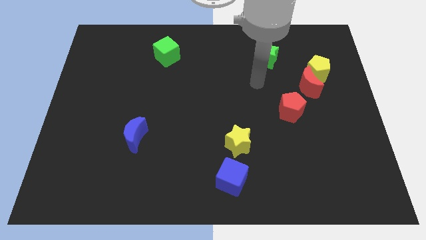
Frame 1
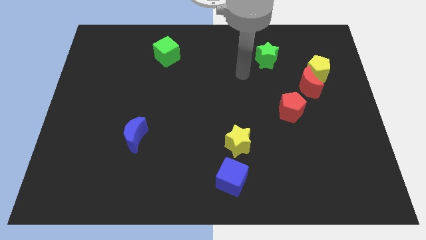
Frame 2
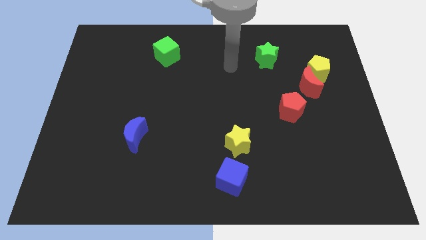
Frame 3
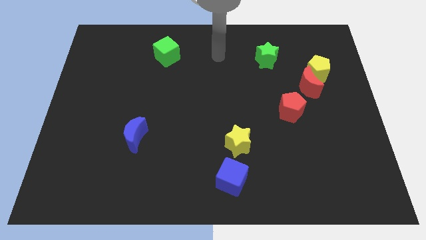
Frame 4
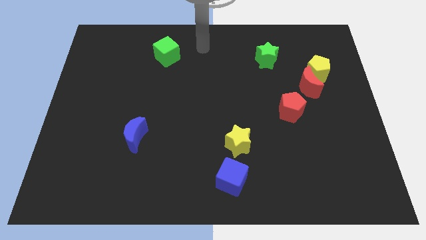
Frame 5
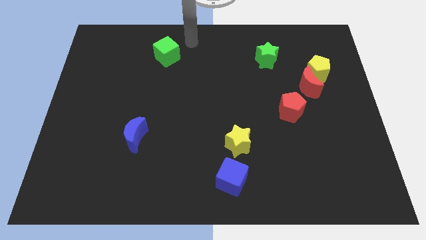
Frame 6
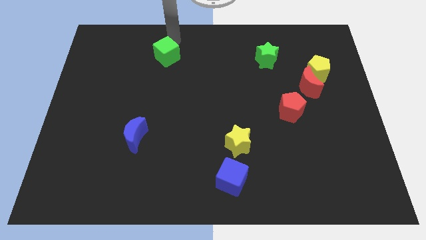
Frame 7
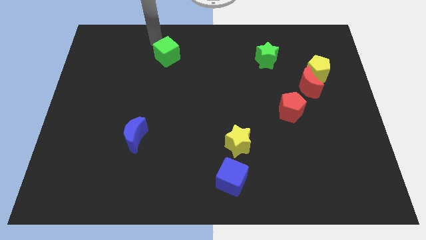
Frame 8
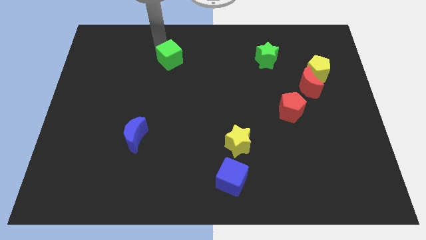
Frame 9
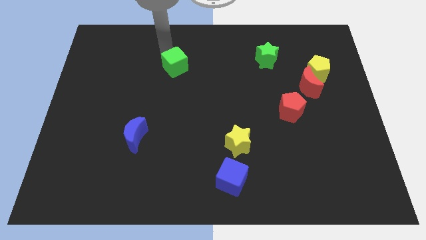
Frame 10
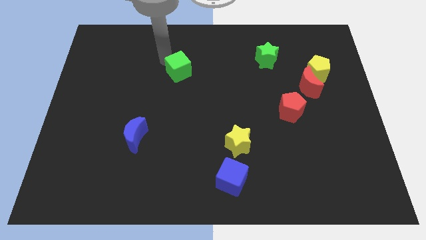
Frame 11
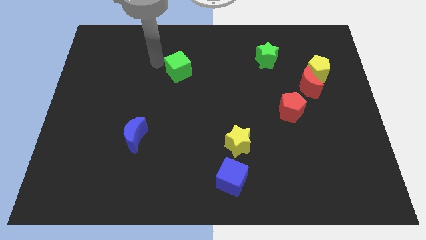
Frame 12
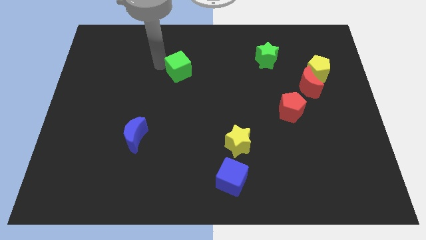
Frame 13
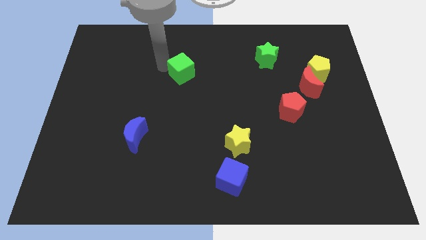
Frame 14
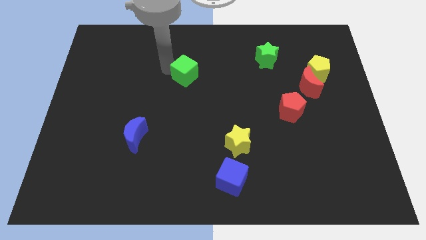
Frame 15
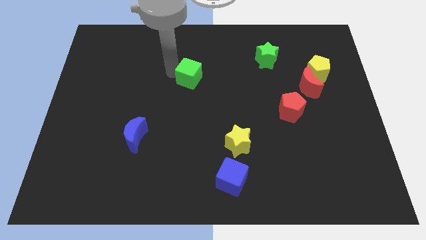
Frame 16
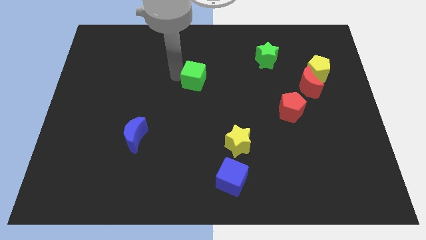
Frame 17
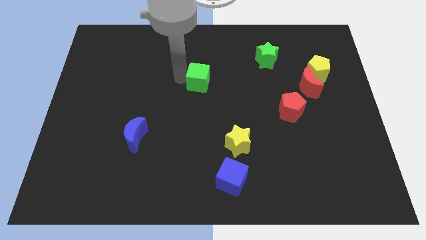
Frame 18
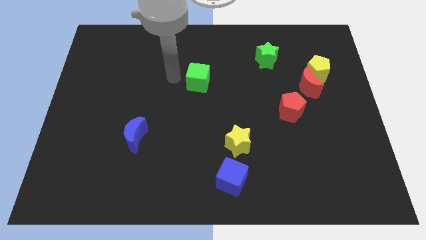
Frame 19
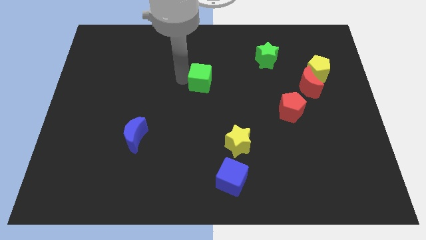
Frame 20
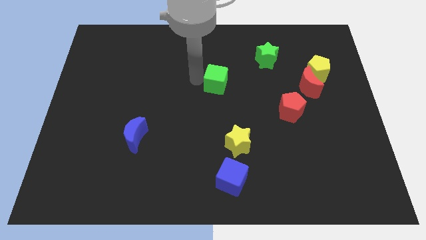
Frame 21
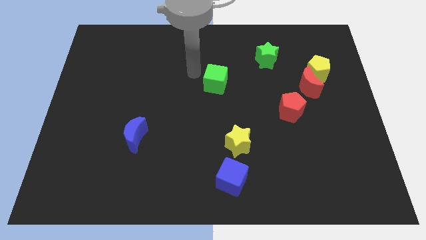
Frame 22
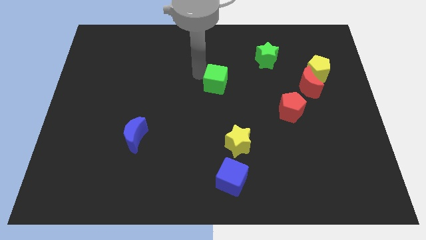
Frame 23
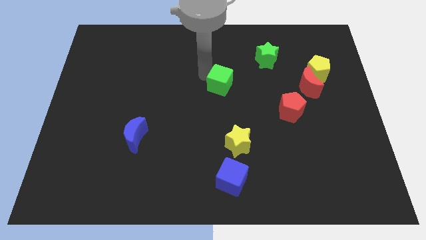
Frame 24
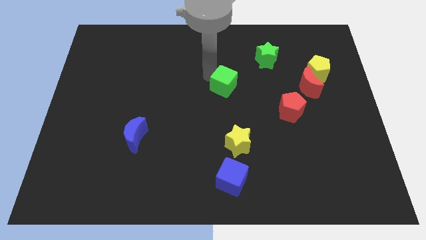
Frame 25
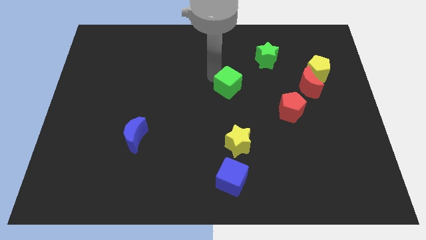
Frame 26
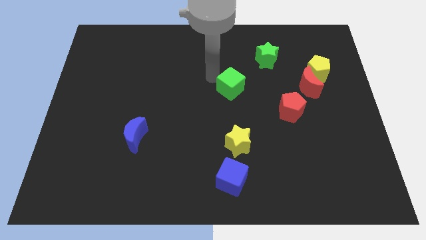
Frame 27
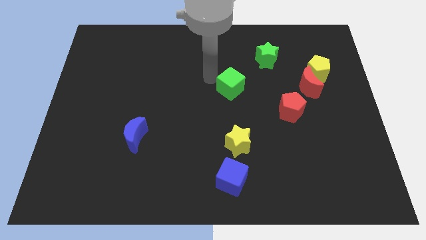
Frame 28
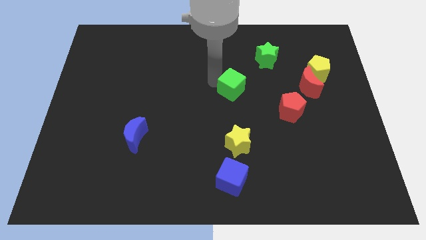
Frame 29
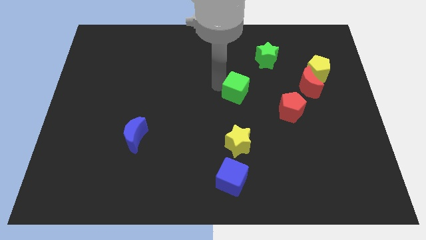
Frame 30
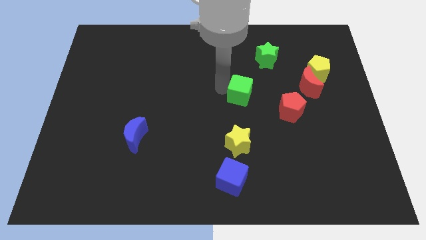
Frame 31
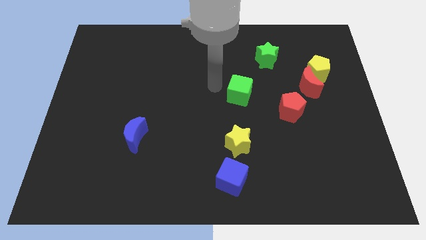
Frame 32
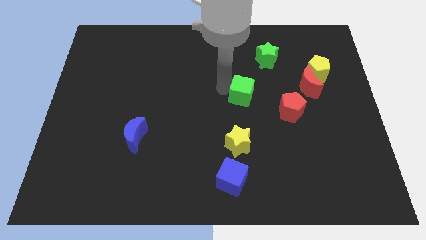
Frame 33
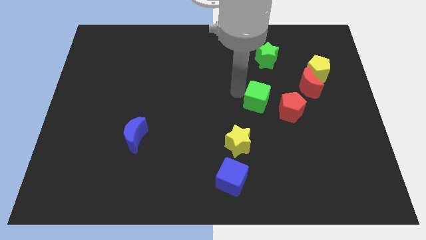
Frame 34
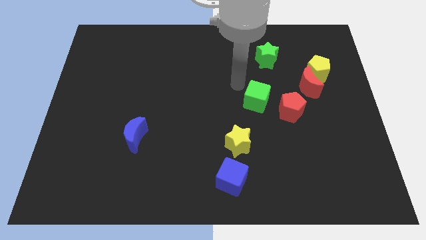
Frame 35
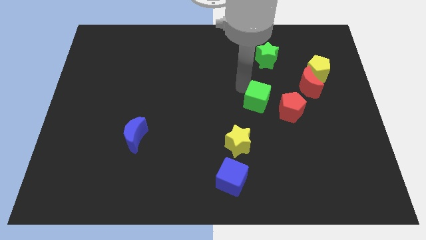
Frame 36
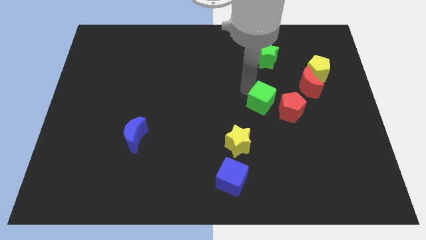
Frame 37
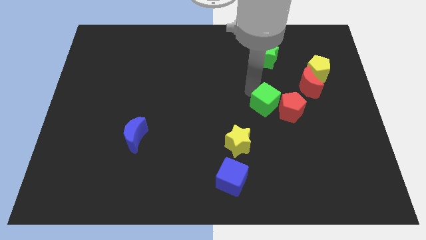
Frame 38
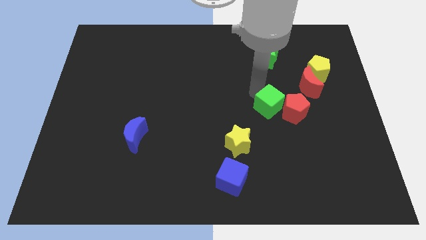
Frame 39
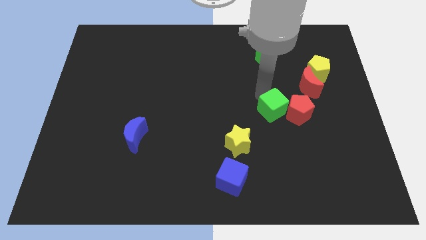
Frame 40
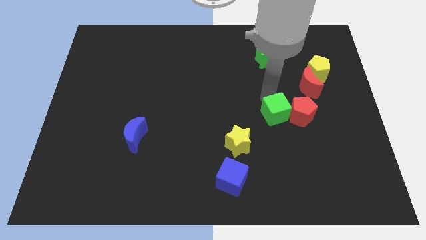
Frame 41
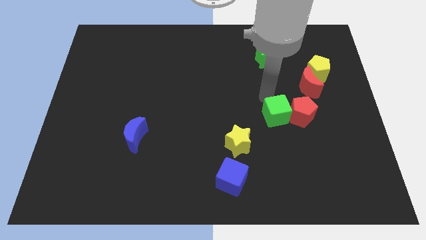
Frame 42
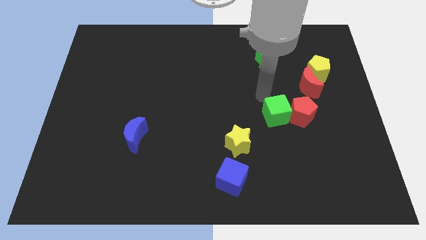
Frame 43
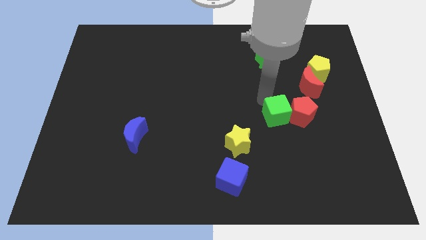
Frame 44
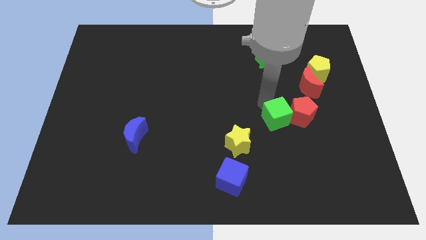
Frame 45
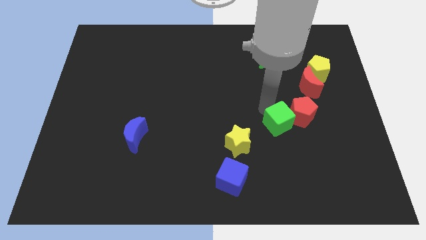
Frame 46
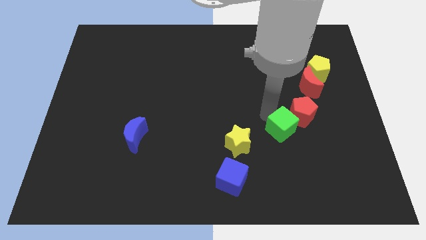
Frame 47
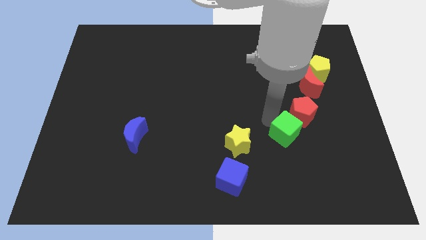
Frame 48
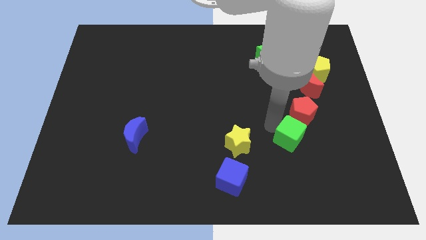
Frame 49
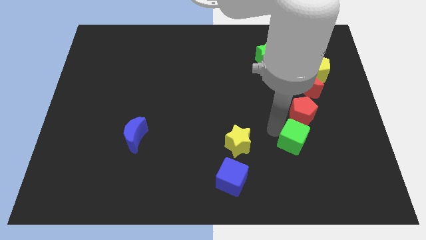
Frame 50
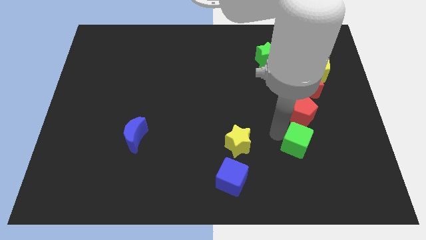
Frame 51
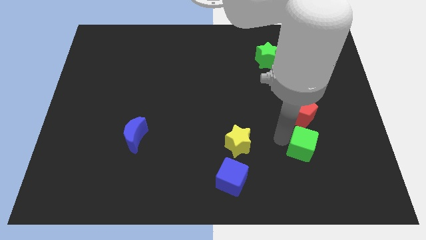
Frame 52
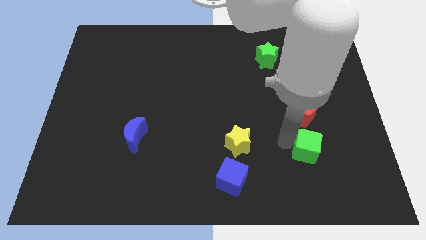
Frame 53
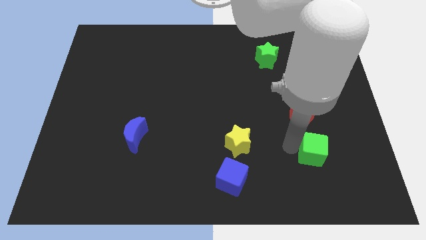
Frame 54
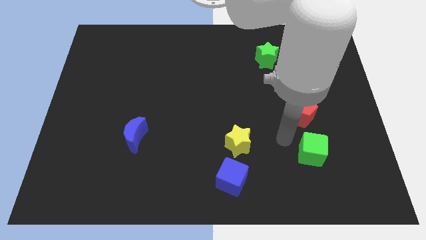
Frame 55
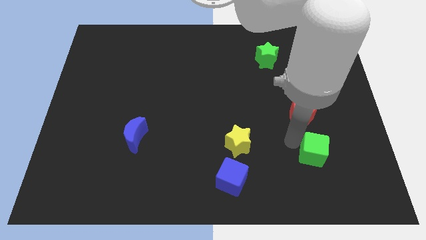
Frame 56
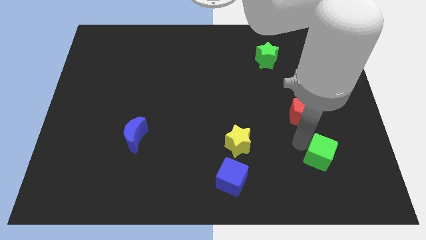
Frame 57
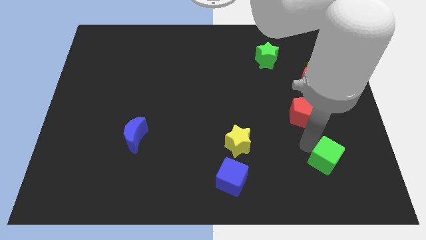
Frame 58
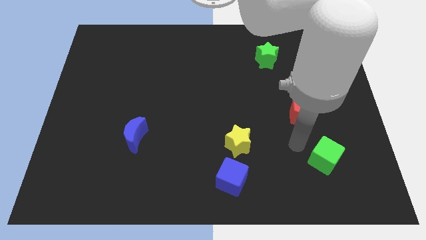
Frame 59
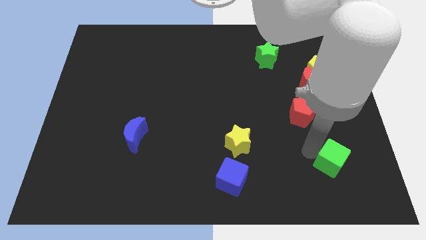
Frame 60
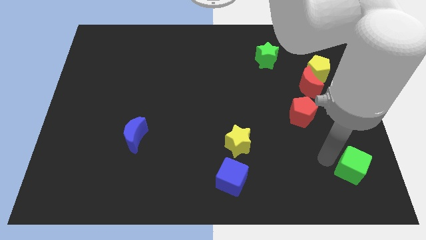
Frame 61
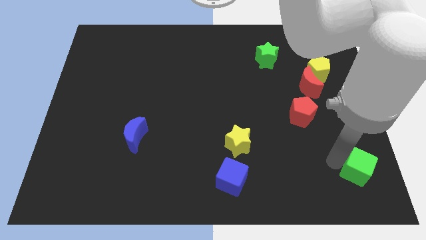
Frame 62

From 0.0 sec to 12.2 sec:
put the green cube to the bottom right corner
